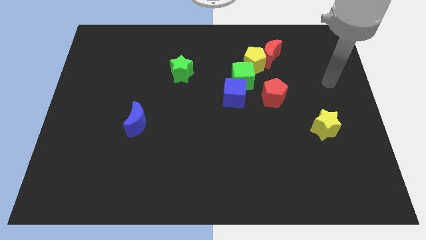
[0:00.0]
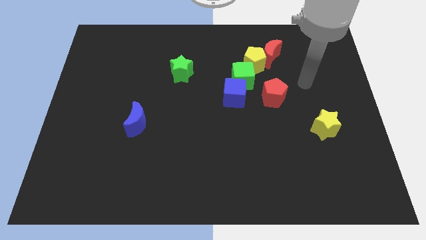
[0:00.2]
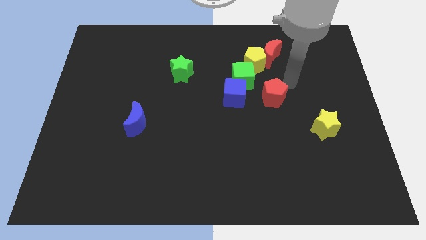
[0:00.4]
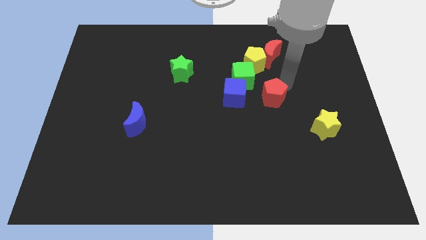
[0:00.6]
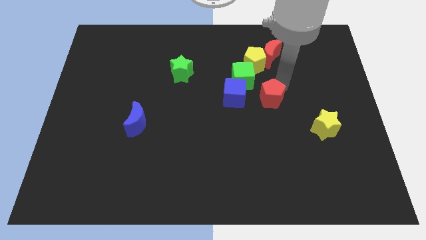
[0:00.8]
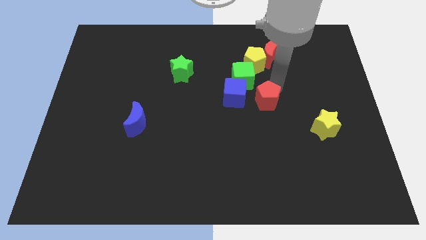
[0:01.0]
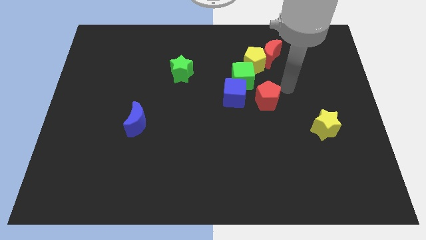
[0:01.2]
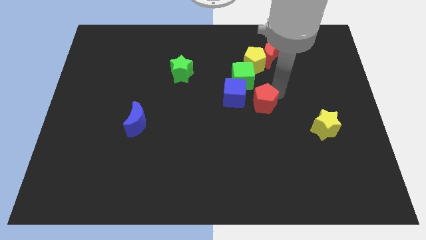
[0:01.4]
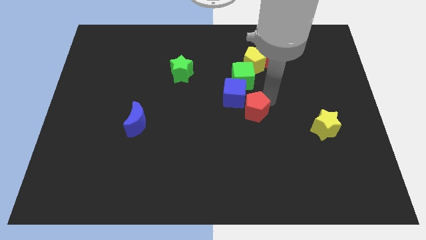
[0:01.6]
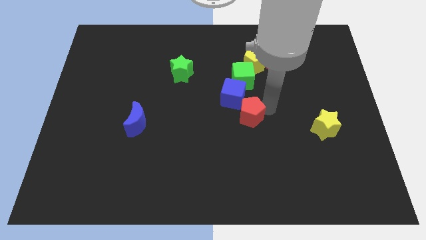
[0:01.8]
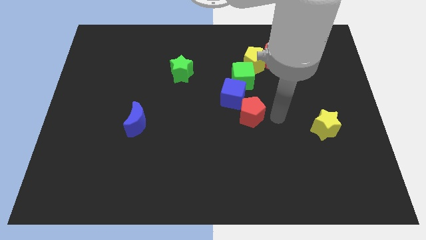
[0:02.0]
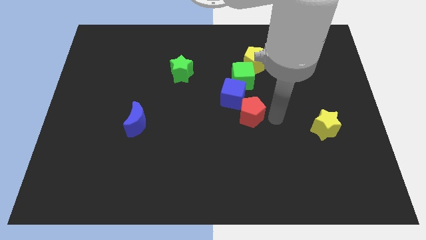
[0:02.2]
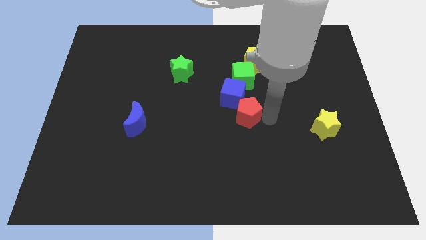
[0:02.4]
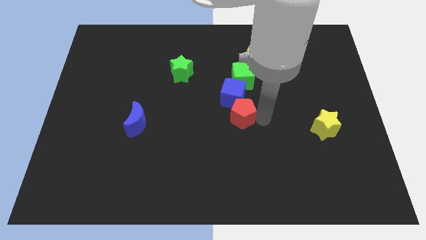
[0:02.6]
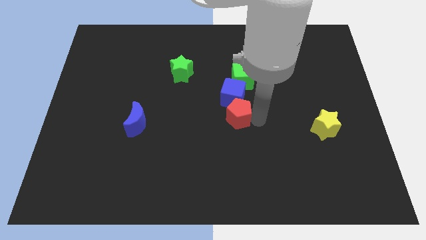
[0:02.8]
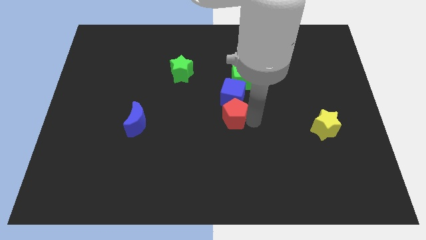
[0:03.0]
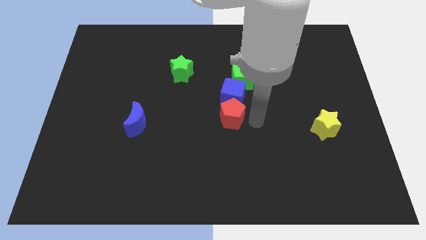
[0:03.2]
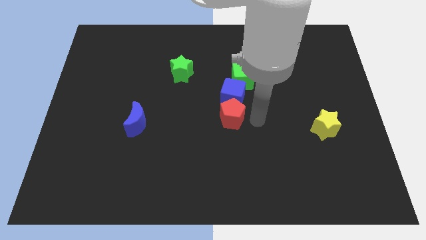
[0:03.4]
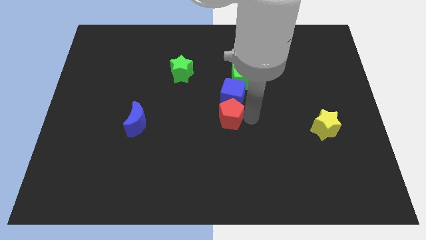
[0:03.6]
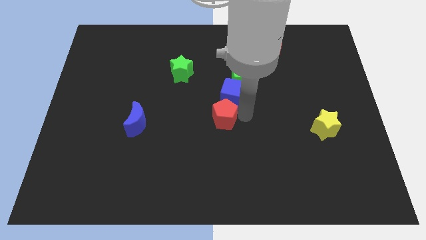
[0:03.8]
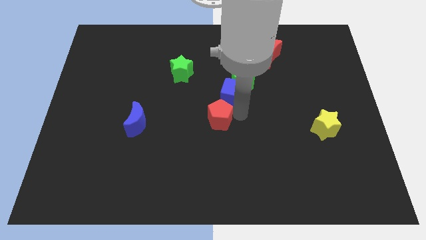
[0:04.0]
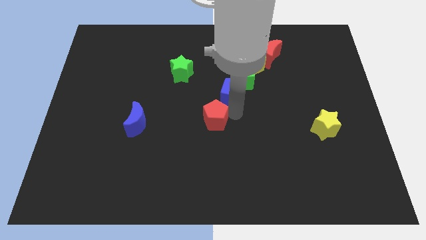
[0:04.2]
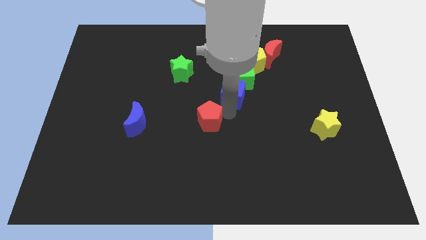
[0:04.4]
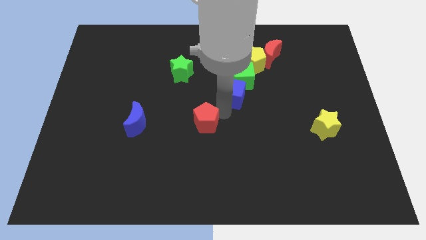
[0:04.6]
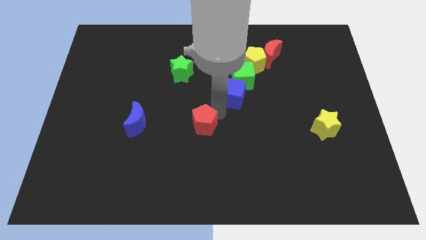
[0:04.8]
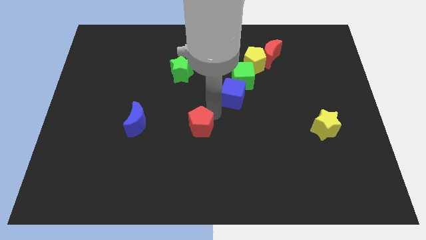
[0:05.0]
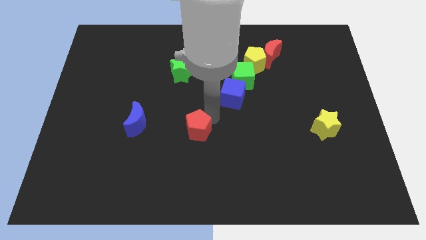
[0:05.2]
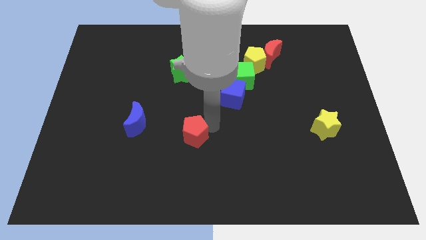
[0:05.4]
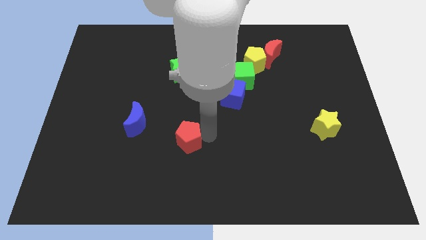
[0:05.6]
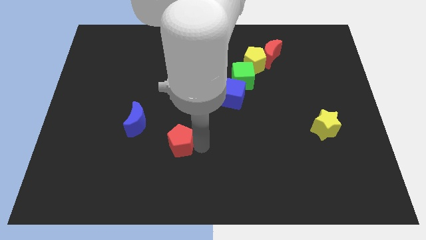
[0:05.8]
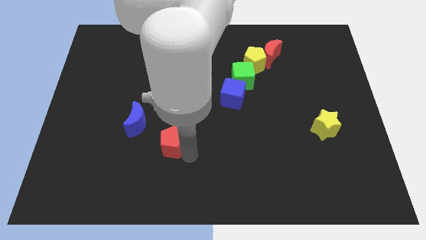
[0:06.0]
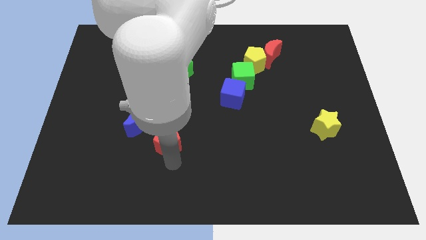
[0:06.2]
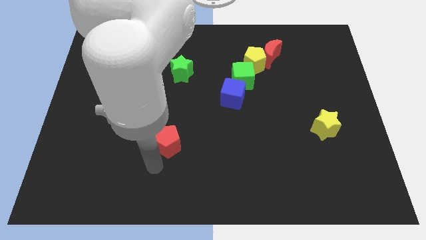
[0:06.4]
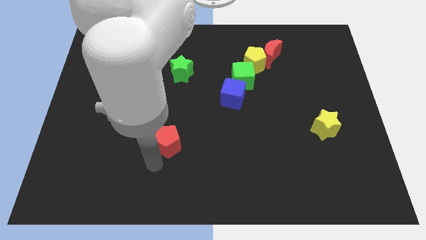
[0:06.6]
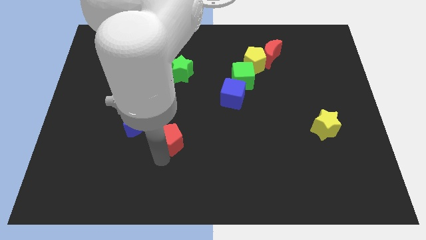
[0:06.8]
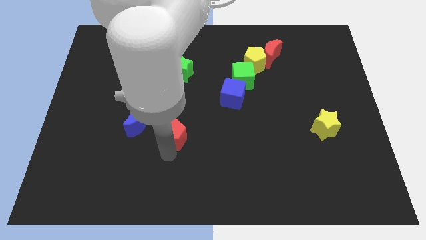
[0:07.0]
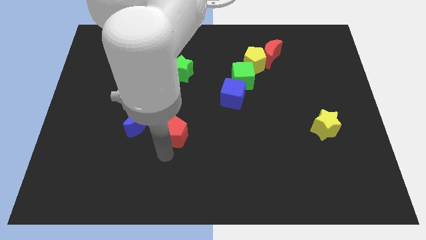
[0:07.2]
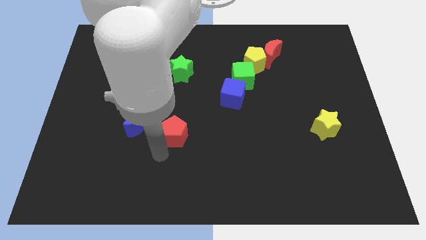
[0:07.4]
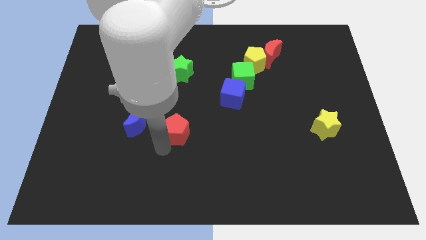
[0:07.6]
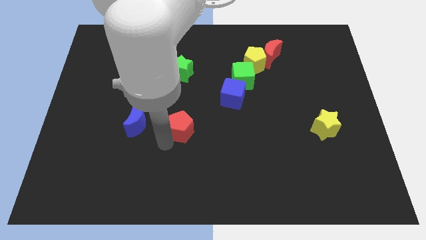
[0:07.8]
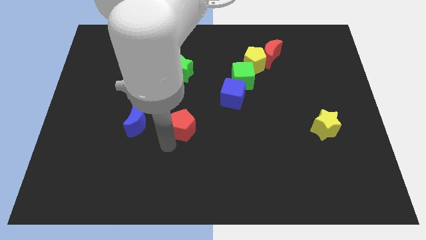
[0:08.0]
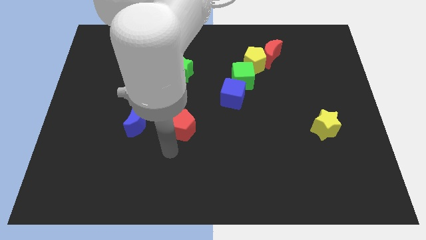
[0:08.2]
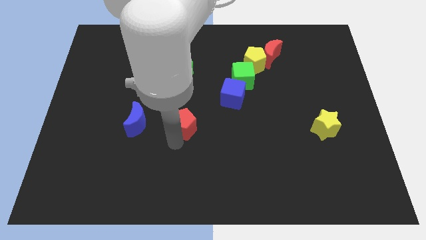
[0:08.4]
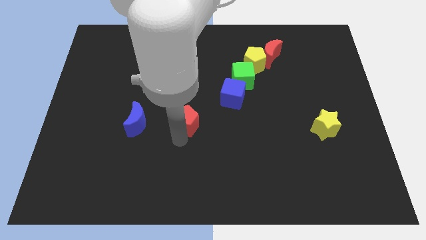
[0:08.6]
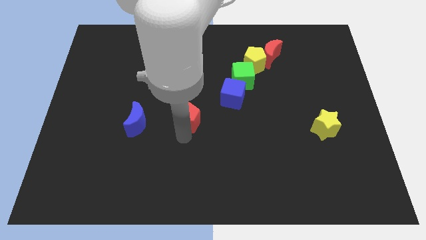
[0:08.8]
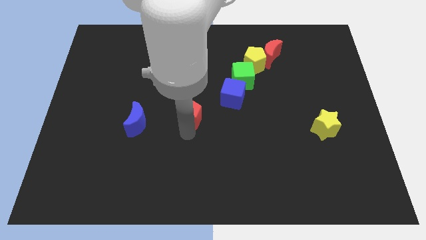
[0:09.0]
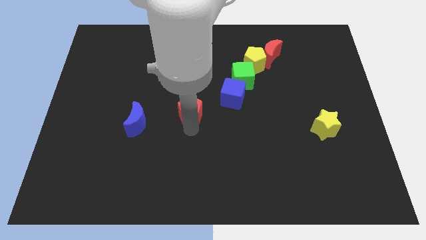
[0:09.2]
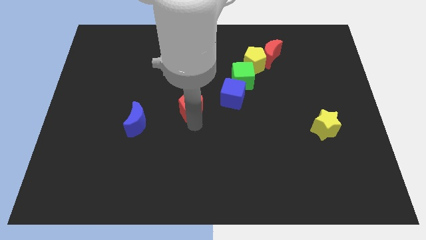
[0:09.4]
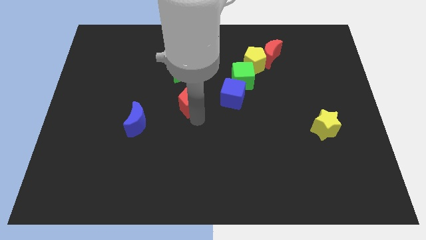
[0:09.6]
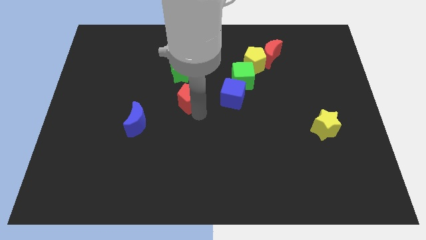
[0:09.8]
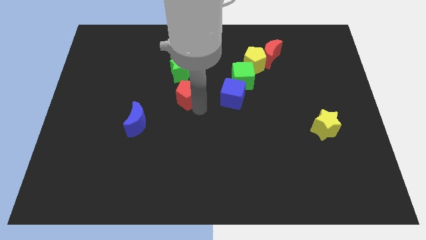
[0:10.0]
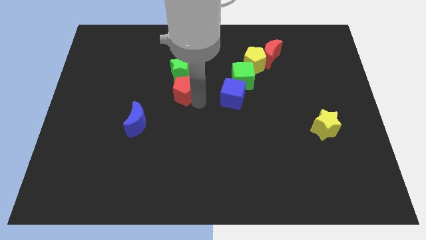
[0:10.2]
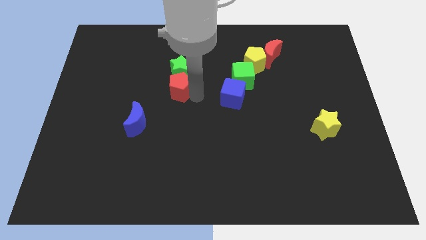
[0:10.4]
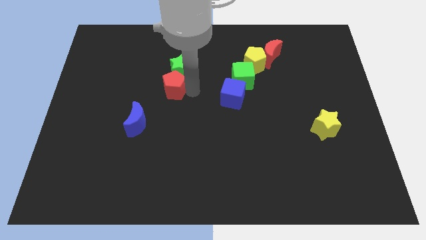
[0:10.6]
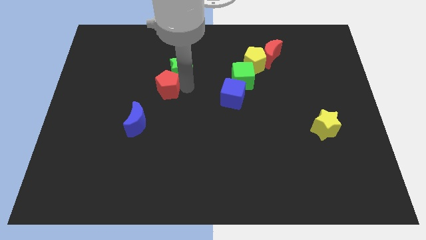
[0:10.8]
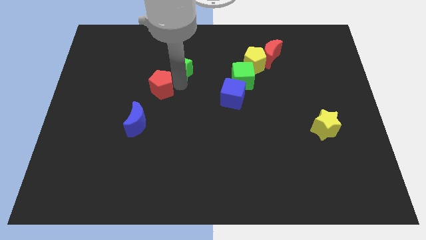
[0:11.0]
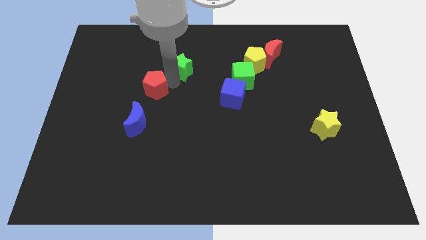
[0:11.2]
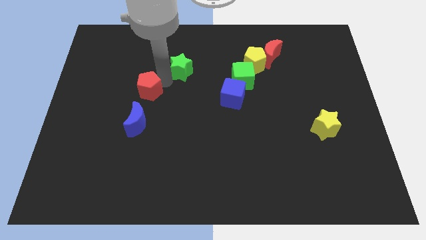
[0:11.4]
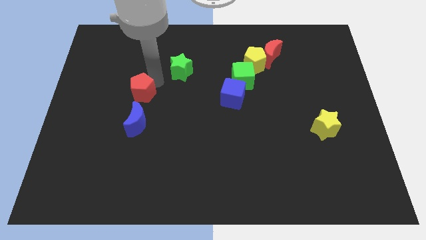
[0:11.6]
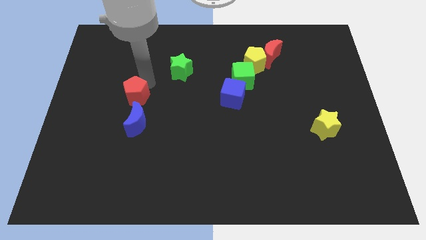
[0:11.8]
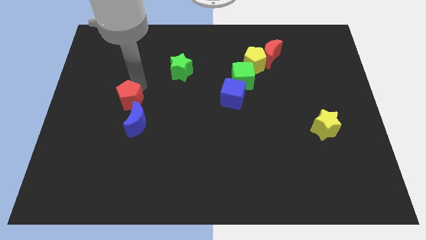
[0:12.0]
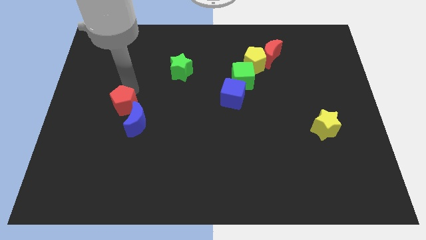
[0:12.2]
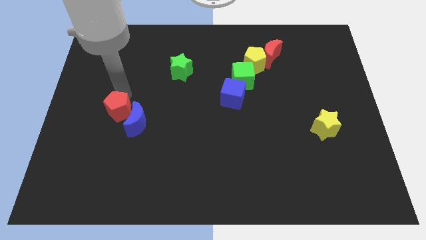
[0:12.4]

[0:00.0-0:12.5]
slide the red pentagon next to the blue moon

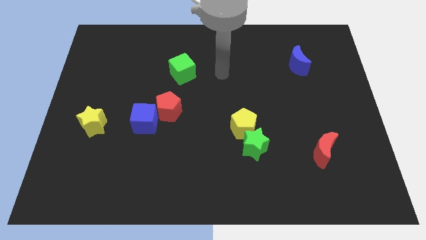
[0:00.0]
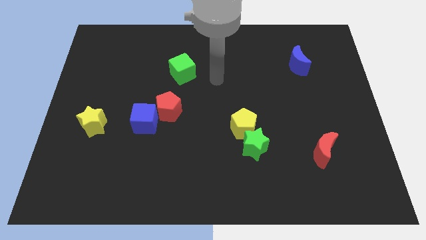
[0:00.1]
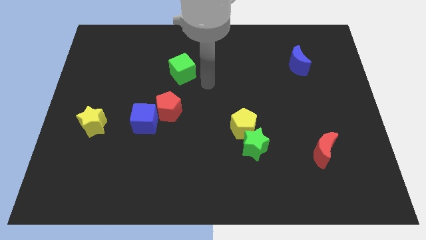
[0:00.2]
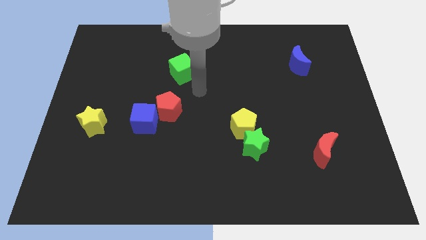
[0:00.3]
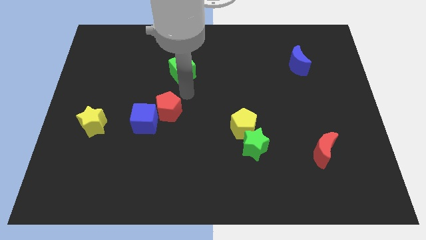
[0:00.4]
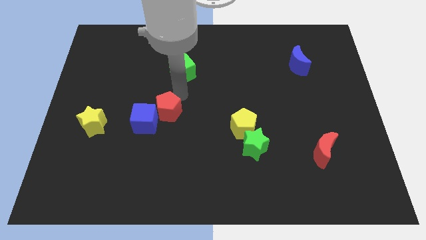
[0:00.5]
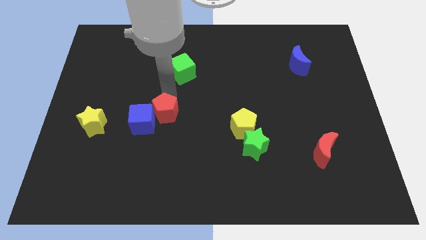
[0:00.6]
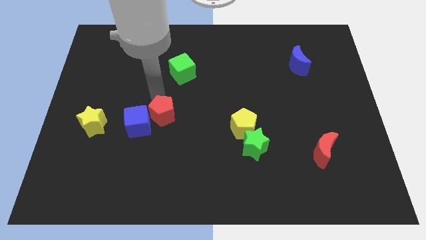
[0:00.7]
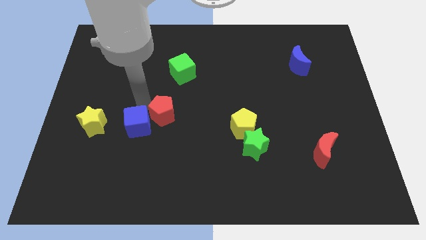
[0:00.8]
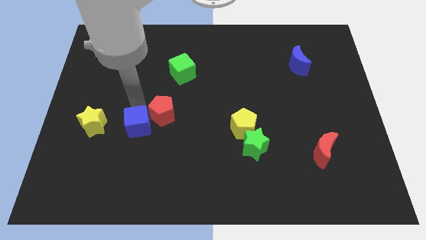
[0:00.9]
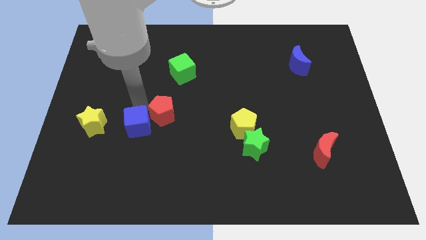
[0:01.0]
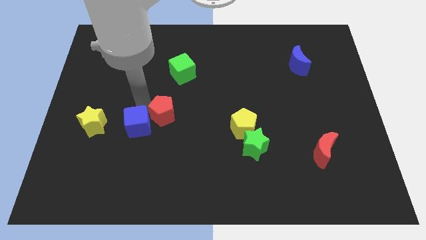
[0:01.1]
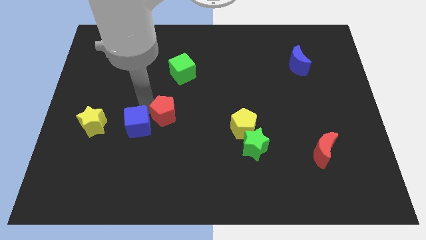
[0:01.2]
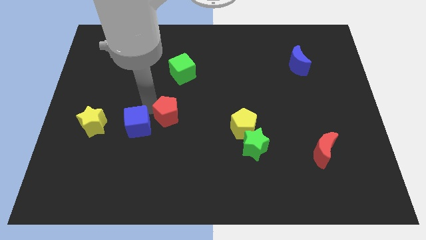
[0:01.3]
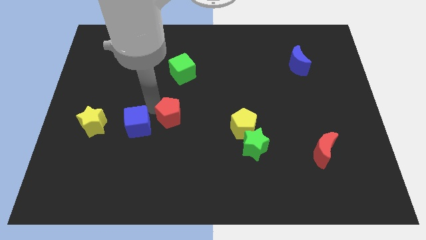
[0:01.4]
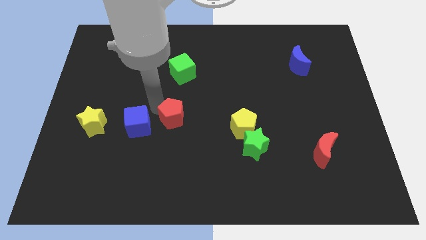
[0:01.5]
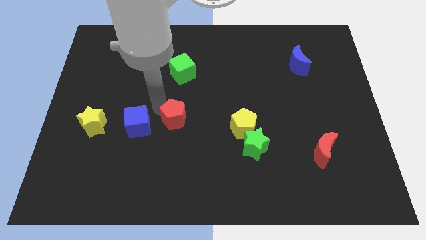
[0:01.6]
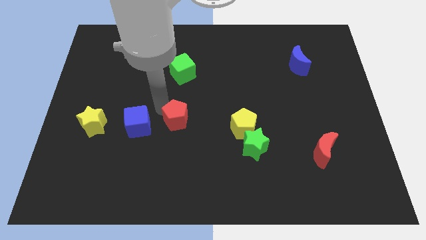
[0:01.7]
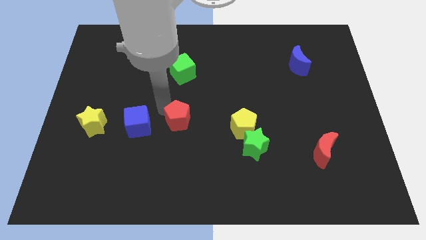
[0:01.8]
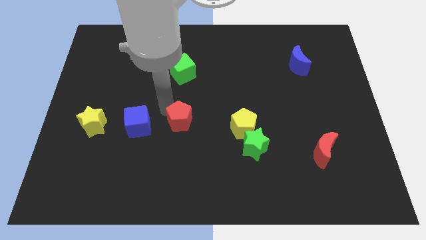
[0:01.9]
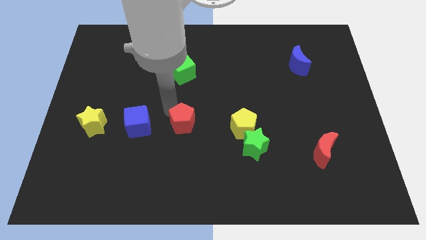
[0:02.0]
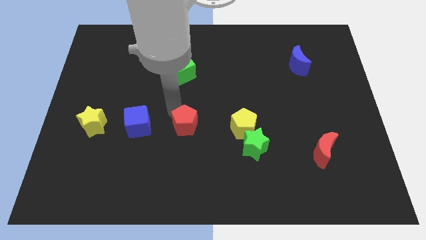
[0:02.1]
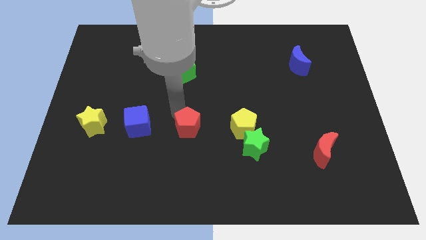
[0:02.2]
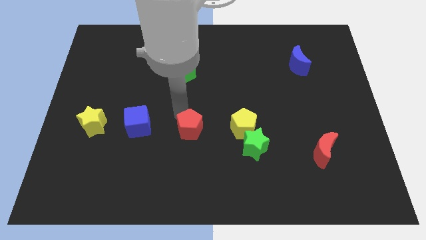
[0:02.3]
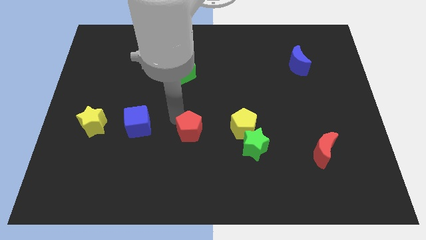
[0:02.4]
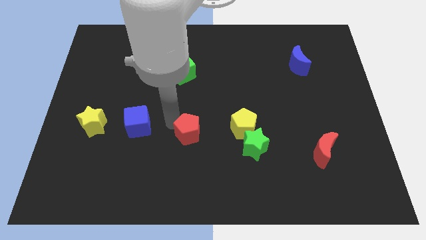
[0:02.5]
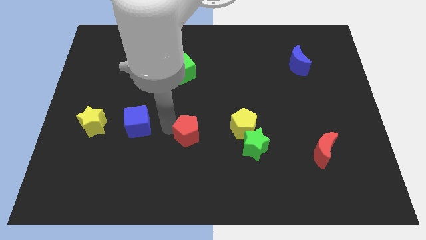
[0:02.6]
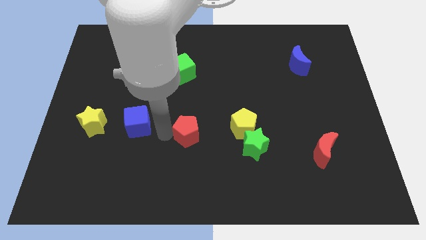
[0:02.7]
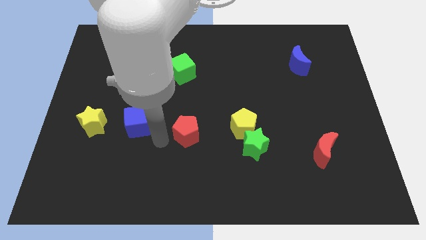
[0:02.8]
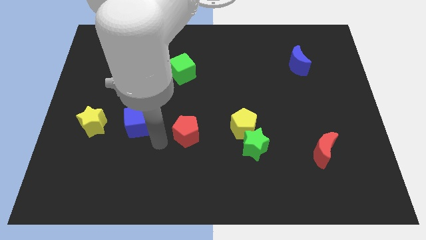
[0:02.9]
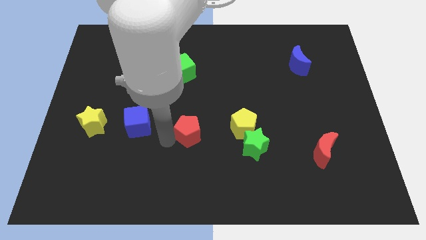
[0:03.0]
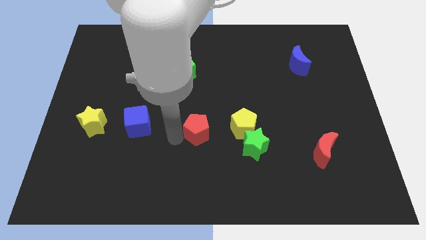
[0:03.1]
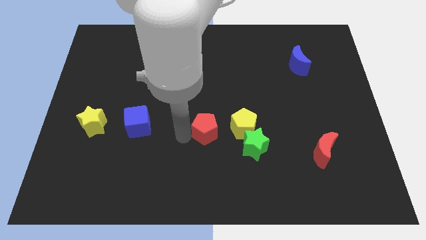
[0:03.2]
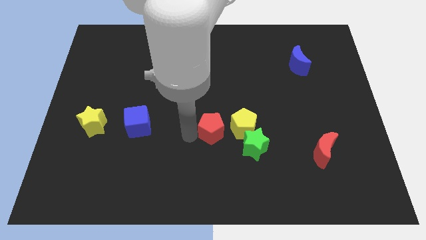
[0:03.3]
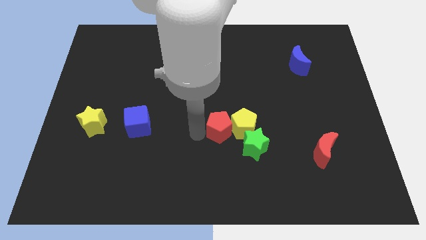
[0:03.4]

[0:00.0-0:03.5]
move the red pentagon to the yellow pentagon
